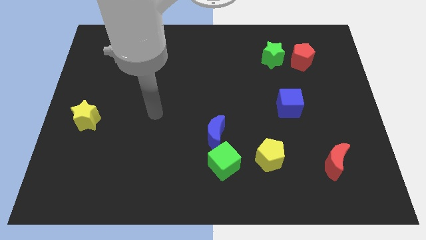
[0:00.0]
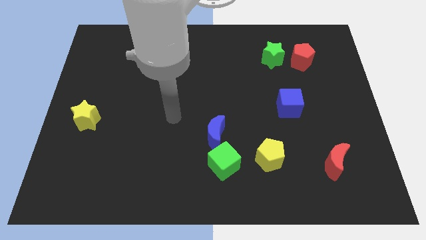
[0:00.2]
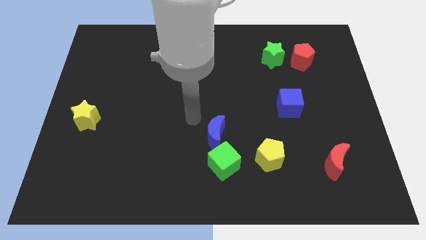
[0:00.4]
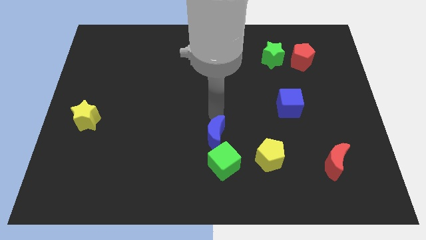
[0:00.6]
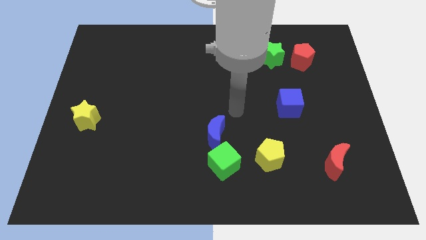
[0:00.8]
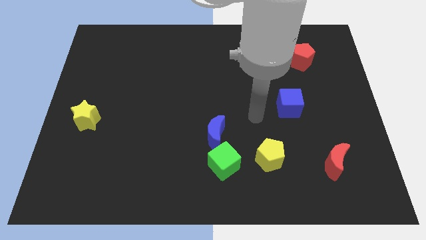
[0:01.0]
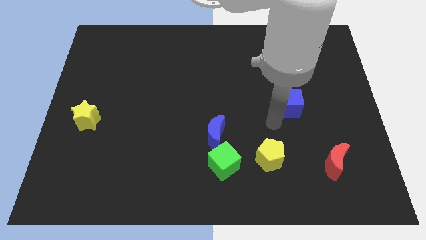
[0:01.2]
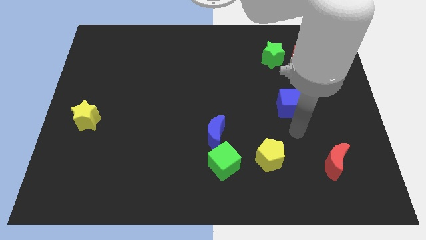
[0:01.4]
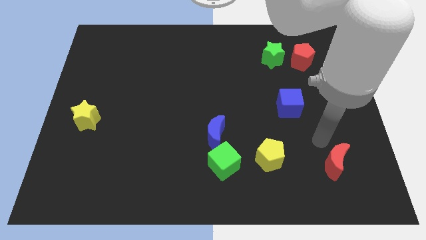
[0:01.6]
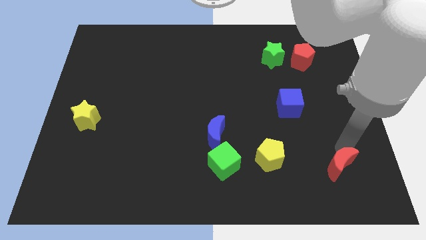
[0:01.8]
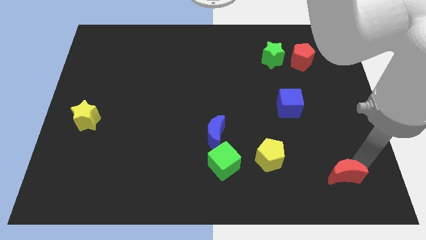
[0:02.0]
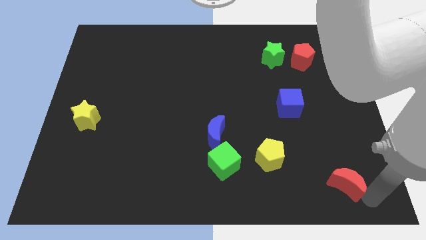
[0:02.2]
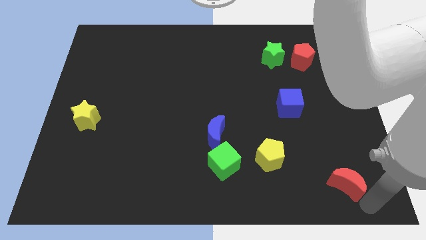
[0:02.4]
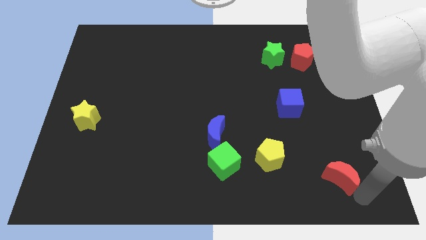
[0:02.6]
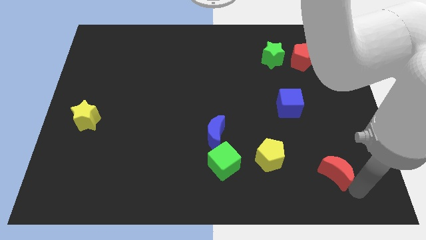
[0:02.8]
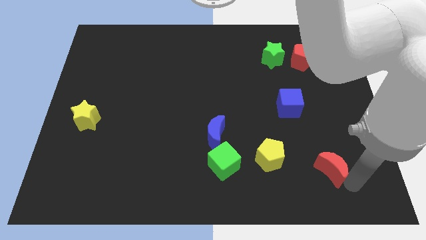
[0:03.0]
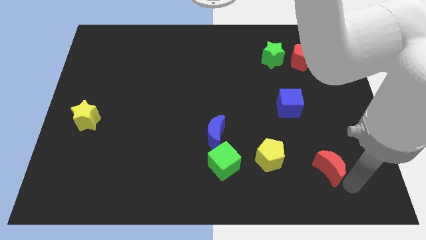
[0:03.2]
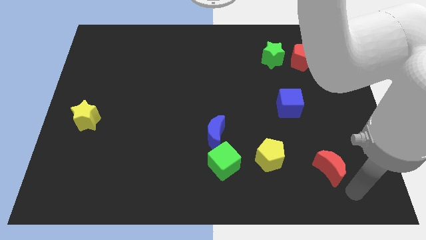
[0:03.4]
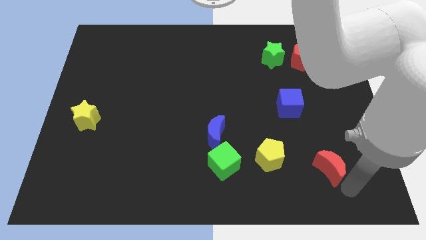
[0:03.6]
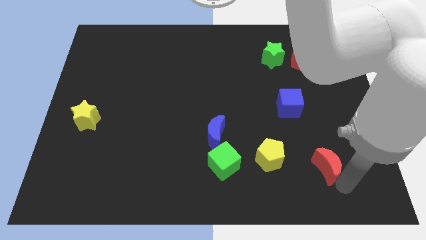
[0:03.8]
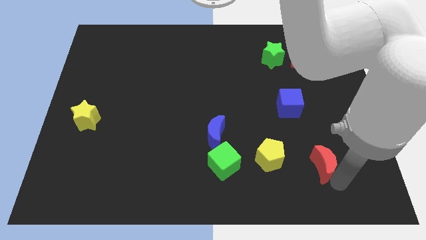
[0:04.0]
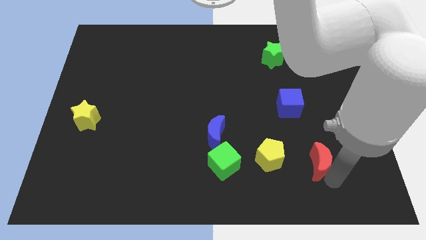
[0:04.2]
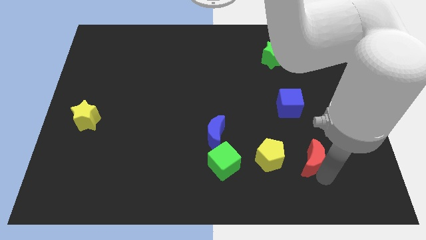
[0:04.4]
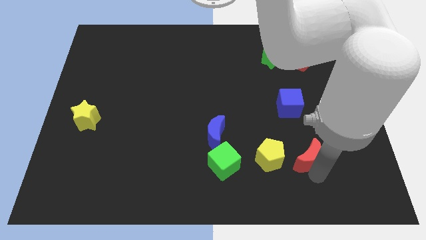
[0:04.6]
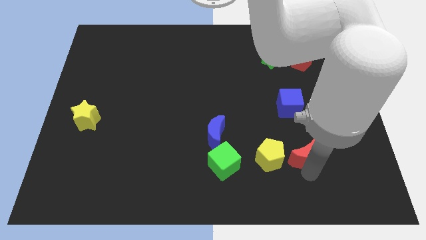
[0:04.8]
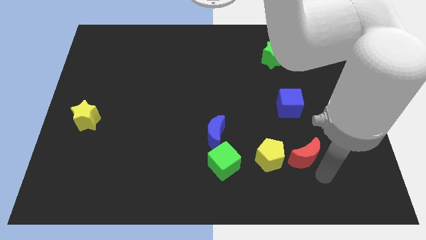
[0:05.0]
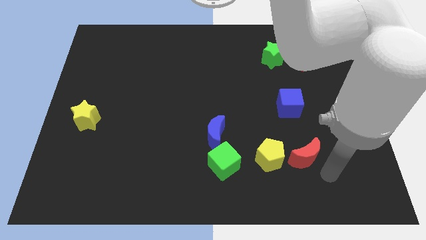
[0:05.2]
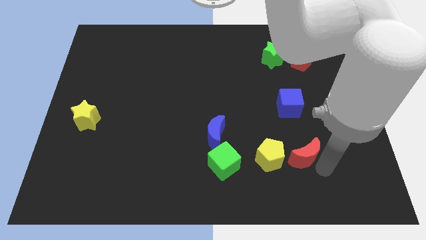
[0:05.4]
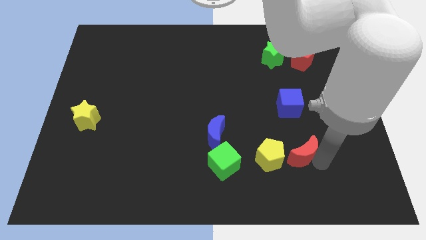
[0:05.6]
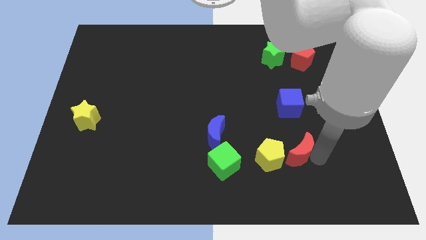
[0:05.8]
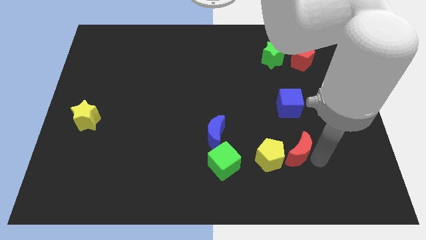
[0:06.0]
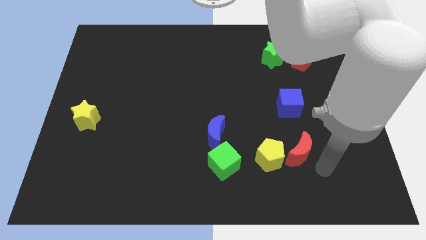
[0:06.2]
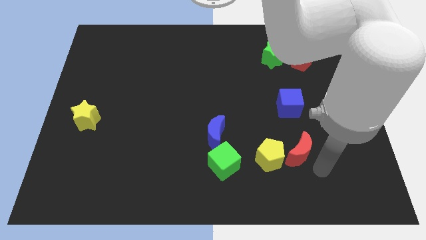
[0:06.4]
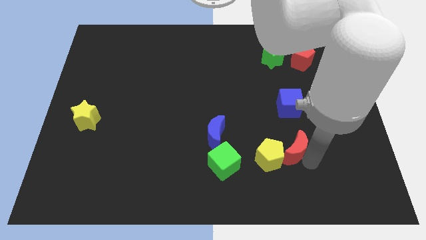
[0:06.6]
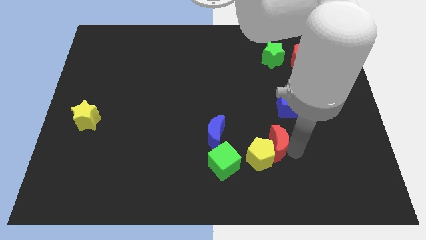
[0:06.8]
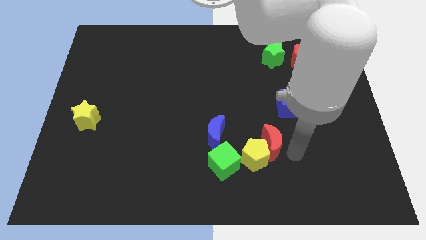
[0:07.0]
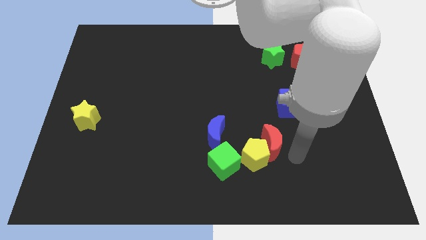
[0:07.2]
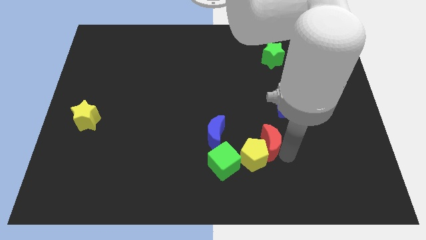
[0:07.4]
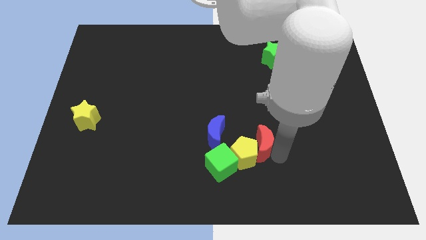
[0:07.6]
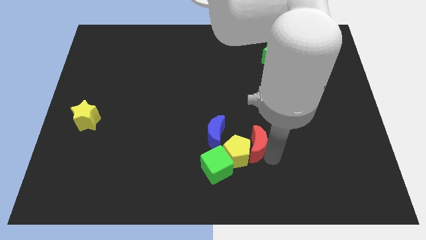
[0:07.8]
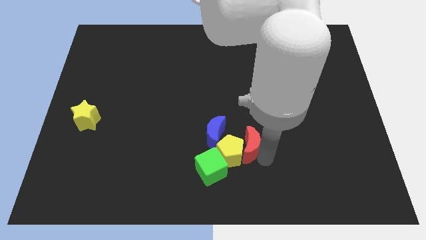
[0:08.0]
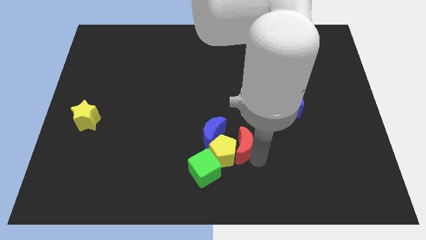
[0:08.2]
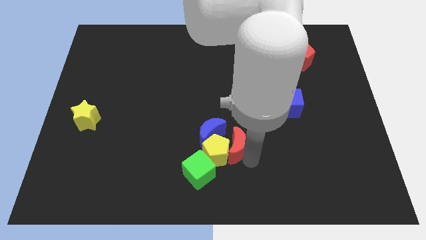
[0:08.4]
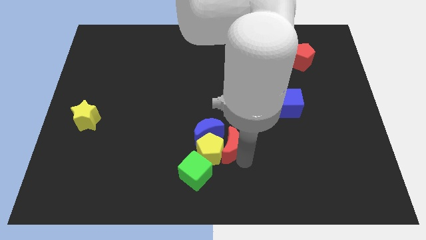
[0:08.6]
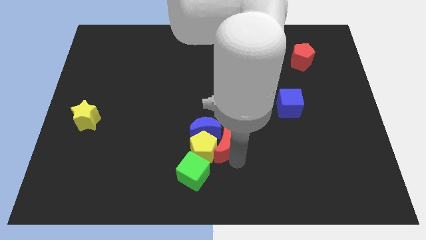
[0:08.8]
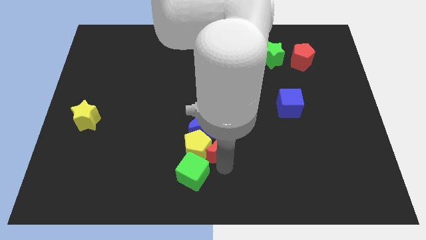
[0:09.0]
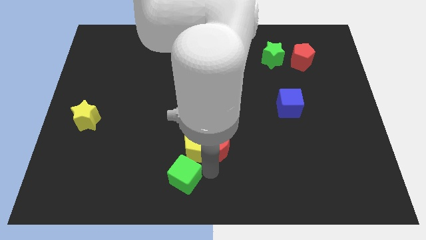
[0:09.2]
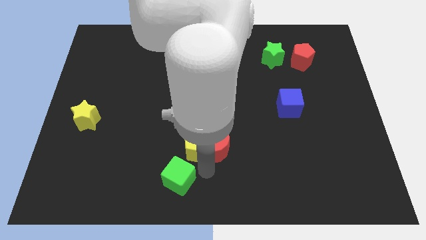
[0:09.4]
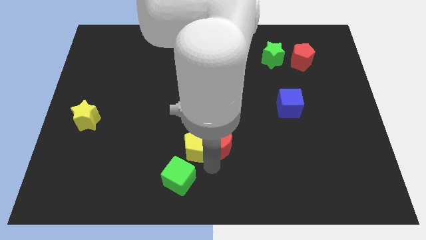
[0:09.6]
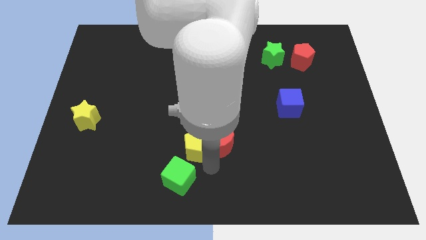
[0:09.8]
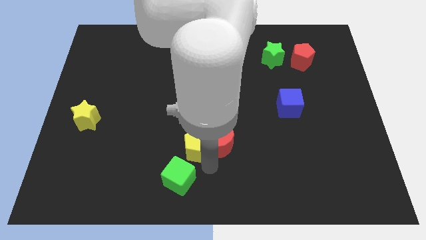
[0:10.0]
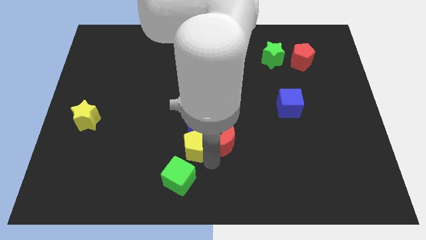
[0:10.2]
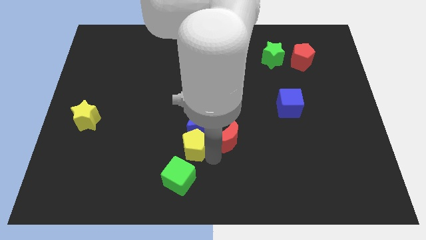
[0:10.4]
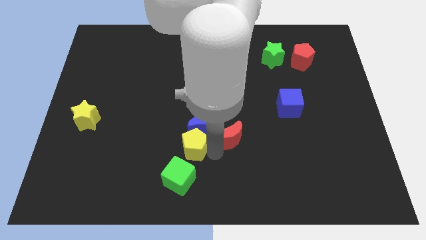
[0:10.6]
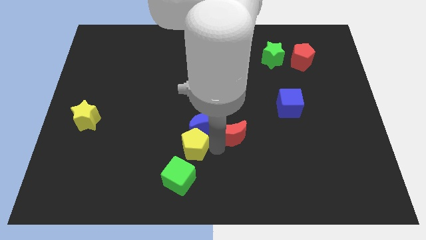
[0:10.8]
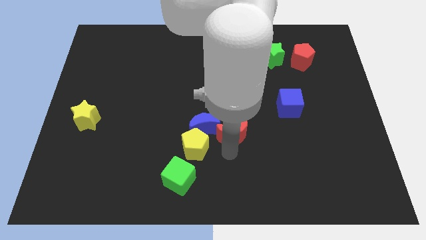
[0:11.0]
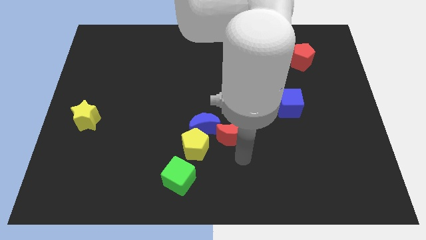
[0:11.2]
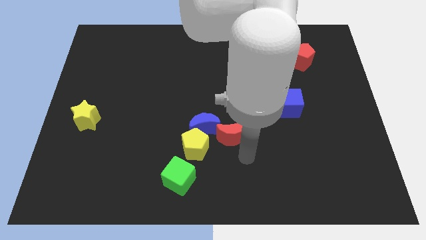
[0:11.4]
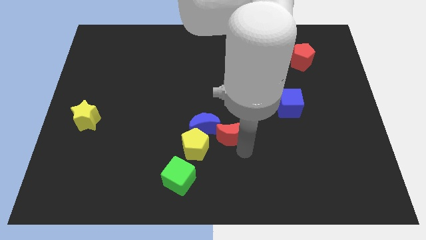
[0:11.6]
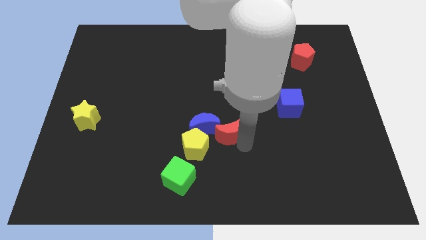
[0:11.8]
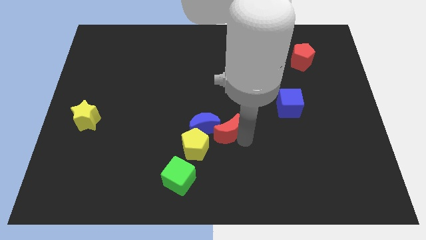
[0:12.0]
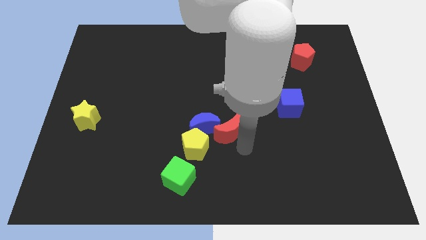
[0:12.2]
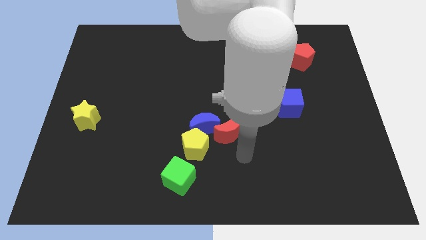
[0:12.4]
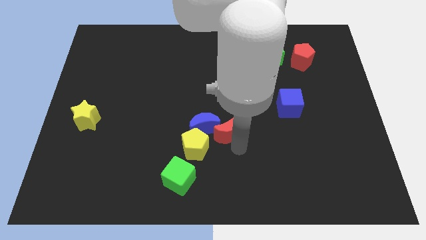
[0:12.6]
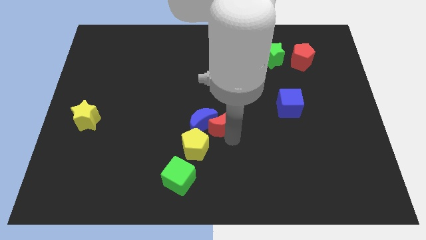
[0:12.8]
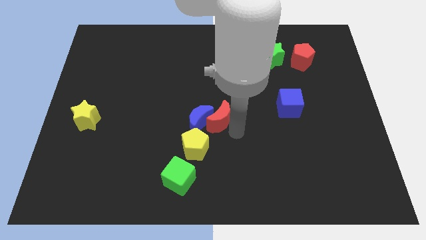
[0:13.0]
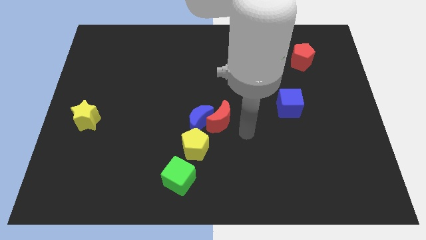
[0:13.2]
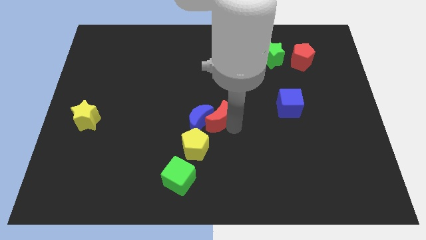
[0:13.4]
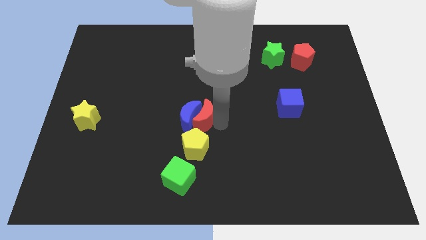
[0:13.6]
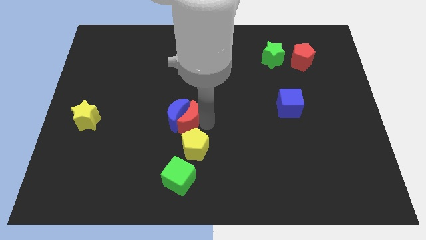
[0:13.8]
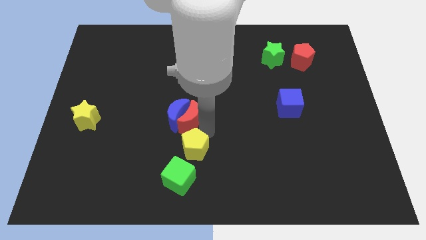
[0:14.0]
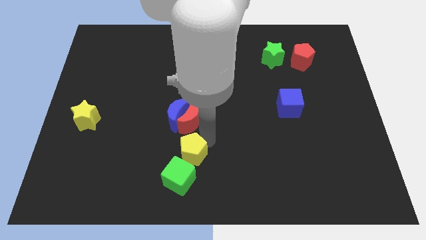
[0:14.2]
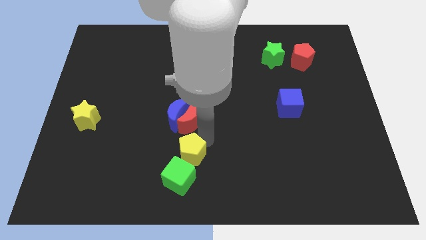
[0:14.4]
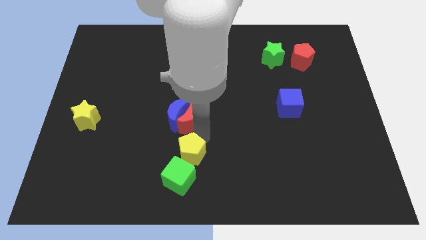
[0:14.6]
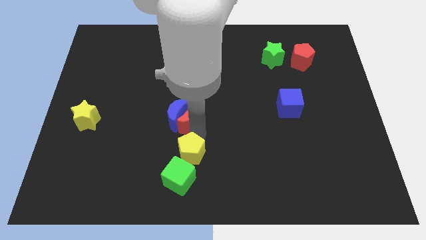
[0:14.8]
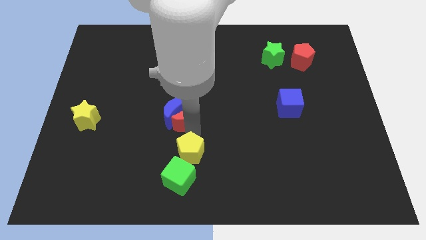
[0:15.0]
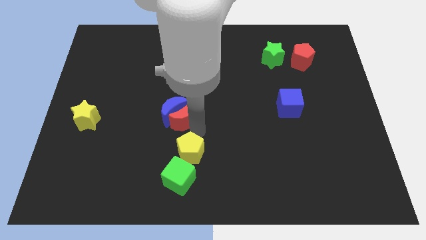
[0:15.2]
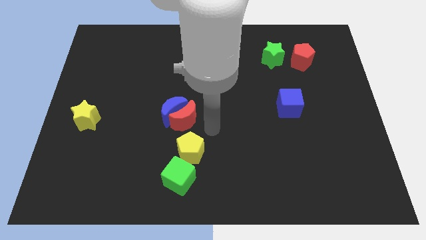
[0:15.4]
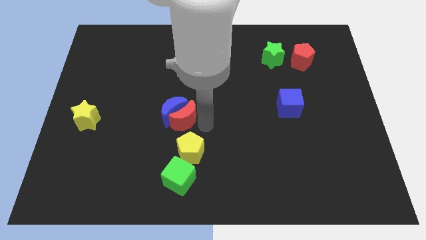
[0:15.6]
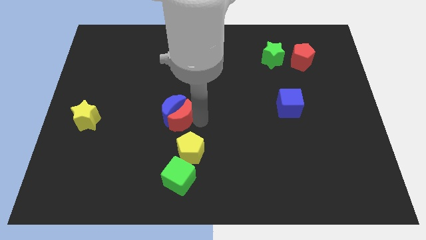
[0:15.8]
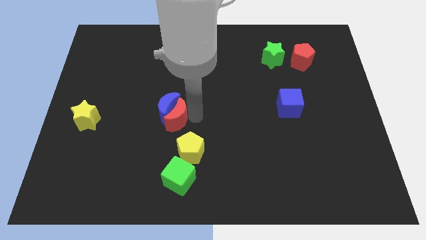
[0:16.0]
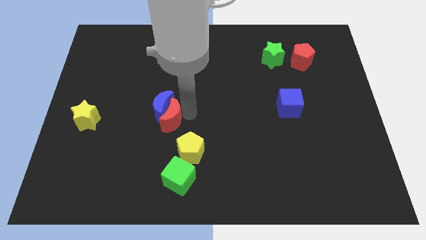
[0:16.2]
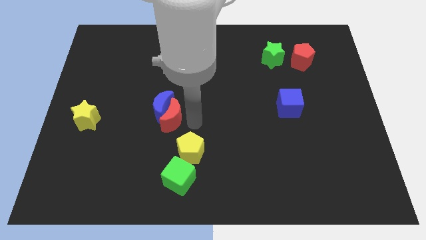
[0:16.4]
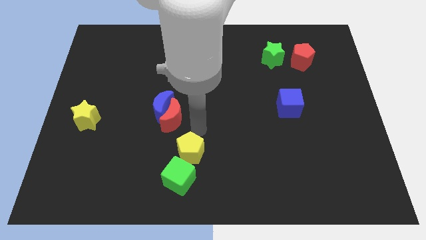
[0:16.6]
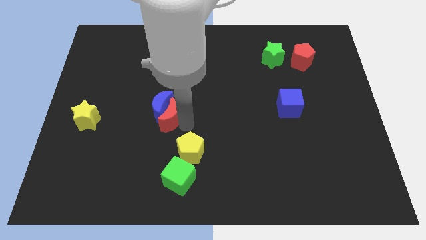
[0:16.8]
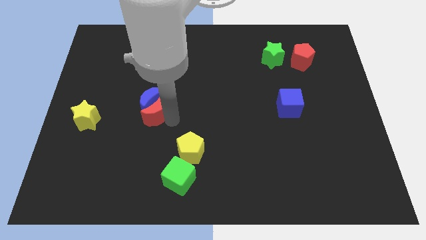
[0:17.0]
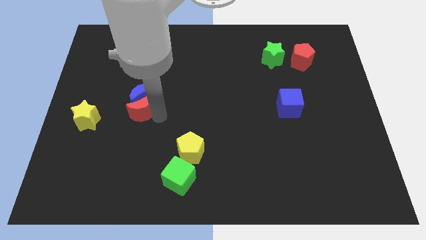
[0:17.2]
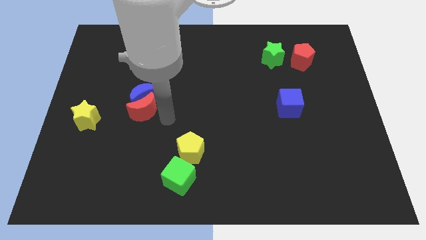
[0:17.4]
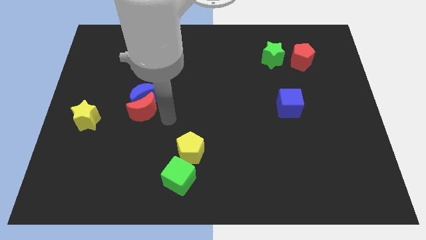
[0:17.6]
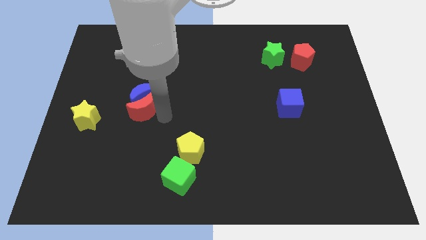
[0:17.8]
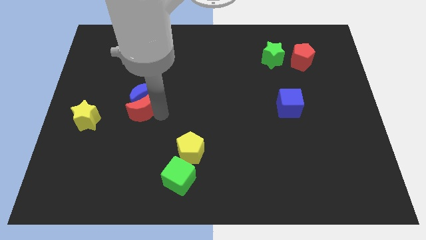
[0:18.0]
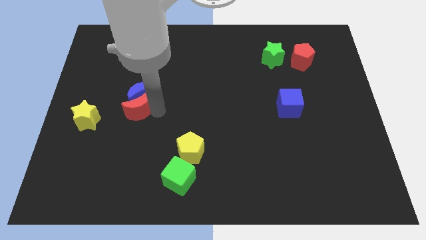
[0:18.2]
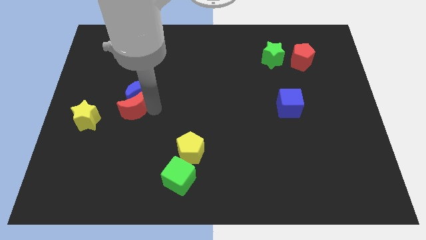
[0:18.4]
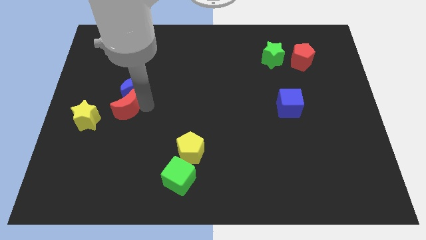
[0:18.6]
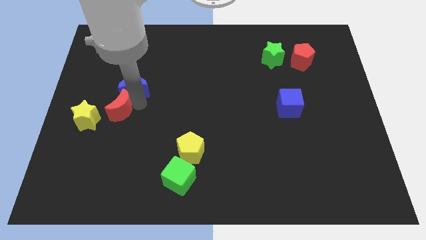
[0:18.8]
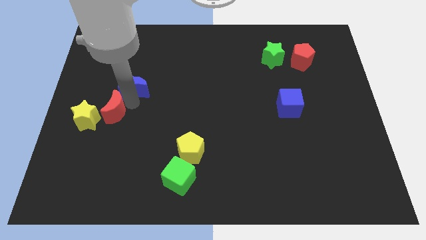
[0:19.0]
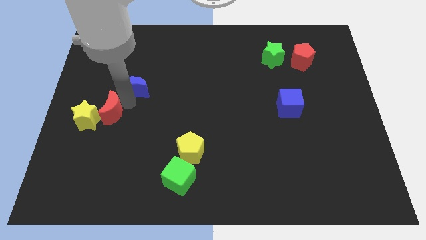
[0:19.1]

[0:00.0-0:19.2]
slide the red moon next to the yellow star
